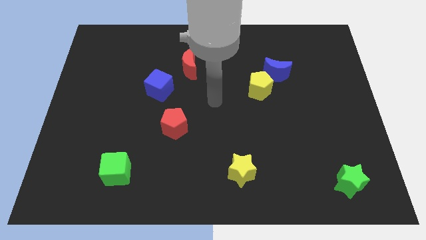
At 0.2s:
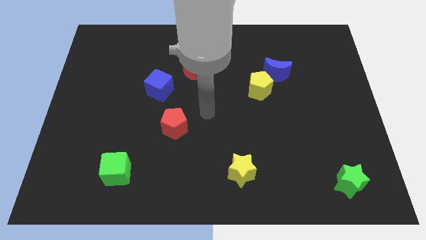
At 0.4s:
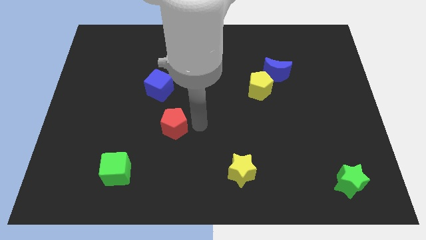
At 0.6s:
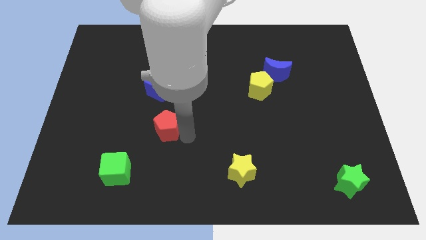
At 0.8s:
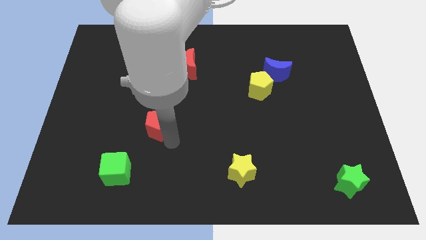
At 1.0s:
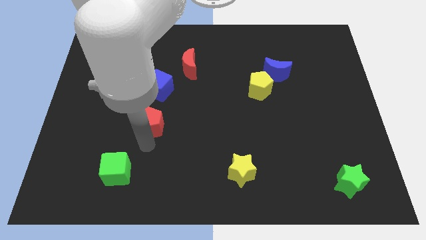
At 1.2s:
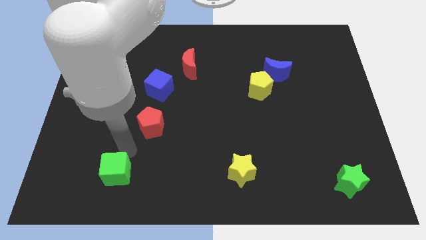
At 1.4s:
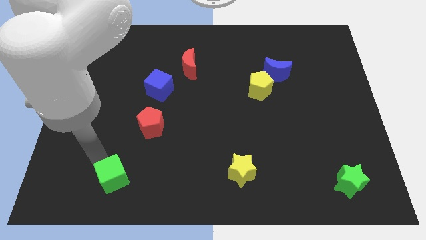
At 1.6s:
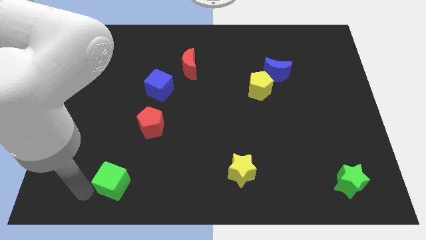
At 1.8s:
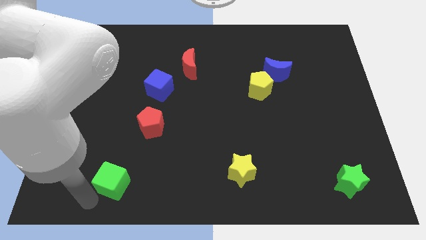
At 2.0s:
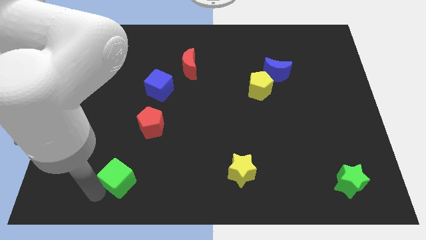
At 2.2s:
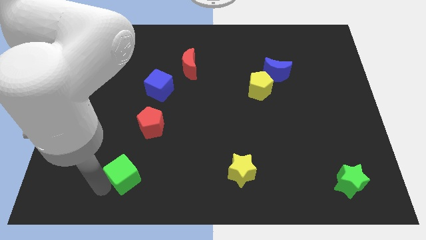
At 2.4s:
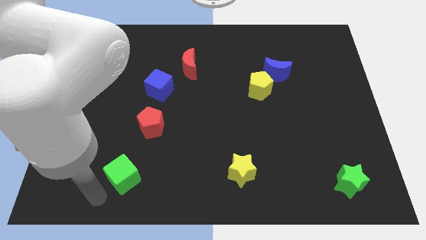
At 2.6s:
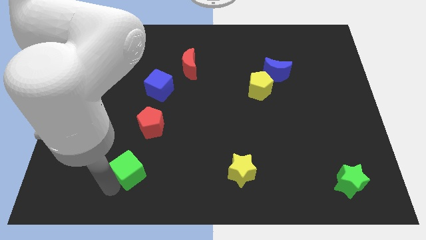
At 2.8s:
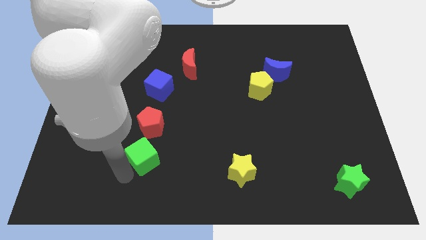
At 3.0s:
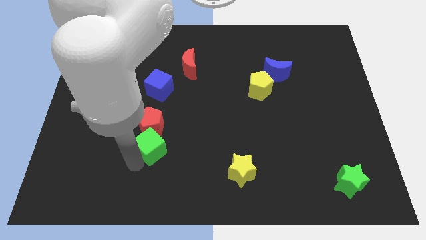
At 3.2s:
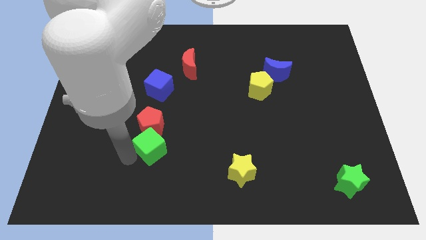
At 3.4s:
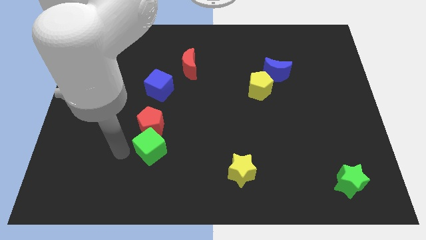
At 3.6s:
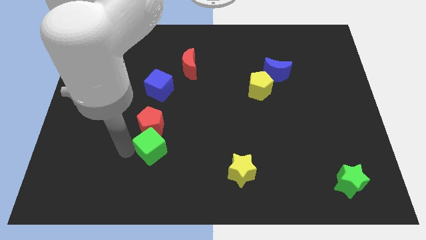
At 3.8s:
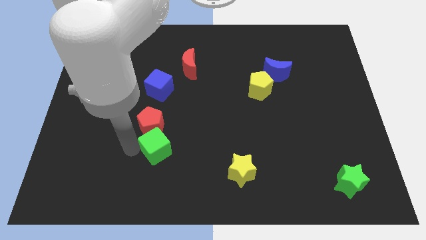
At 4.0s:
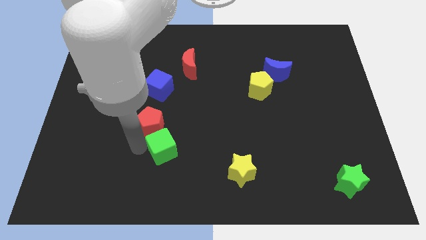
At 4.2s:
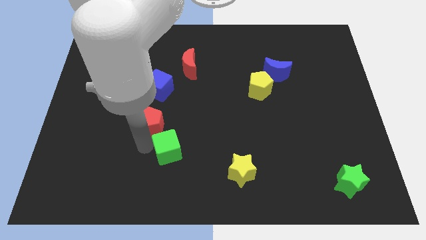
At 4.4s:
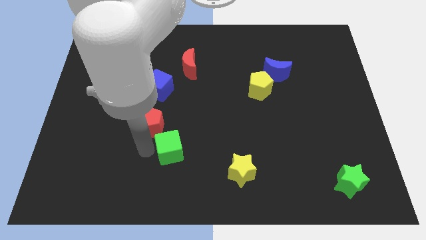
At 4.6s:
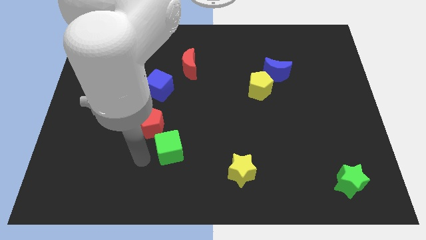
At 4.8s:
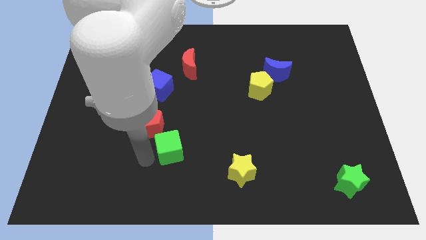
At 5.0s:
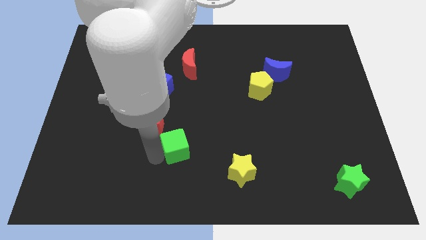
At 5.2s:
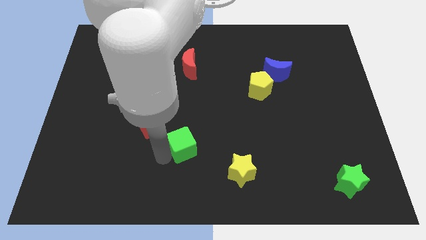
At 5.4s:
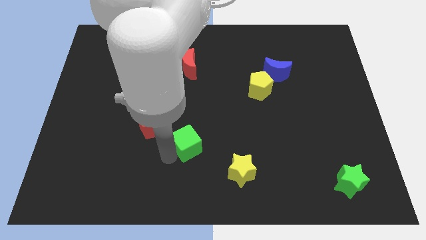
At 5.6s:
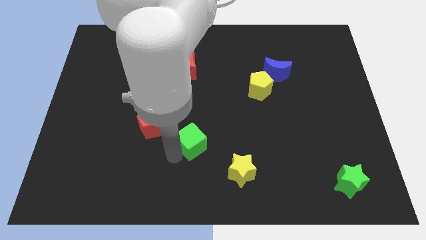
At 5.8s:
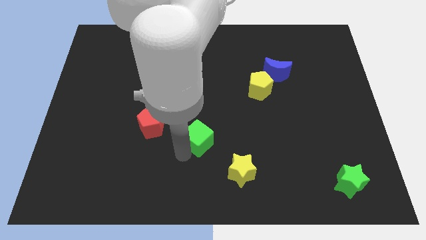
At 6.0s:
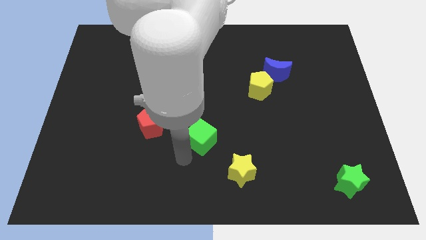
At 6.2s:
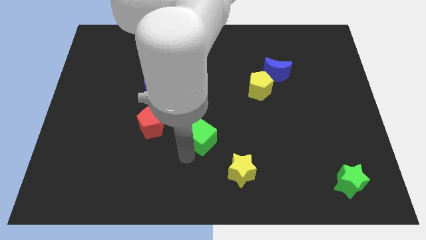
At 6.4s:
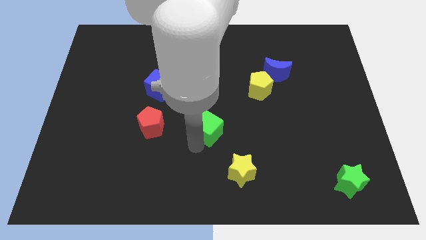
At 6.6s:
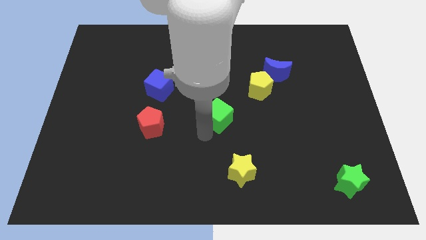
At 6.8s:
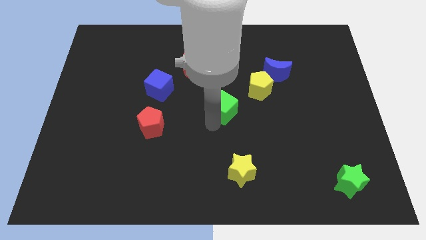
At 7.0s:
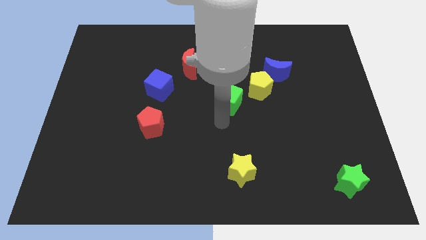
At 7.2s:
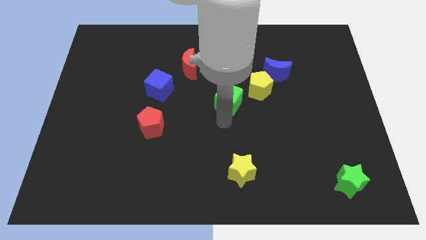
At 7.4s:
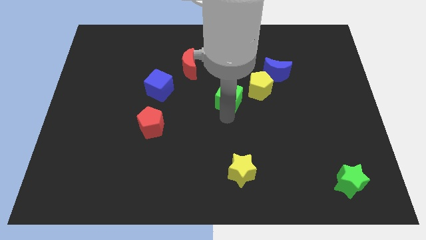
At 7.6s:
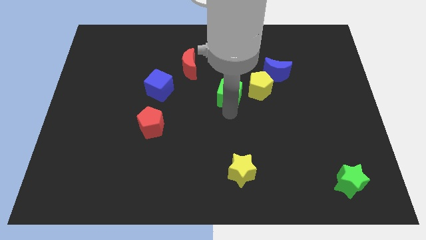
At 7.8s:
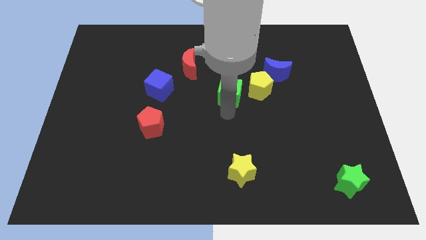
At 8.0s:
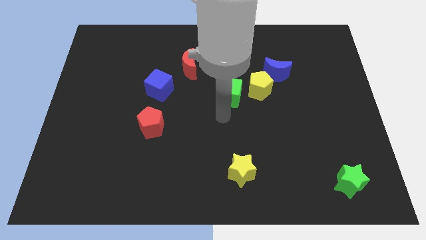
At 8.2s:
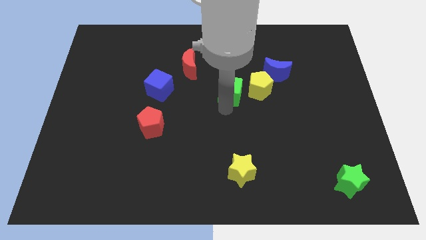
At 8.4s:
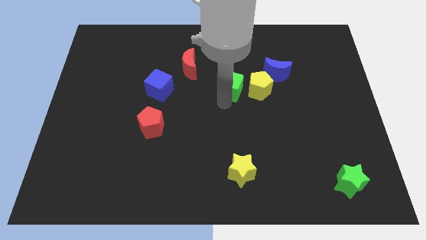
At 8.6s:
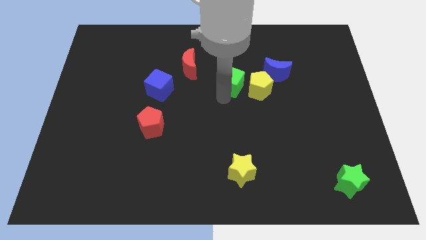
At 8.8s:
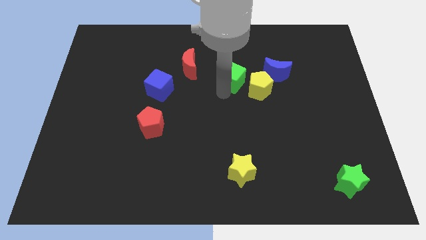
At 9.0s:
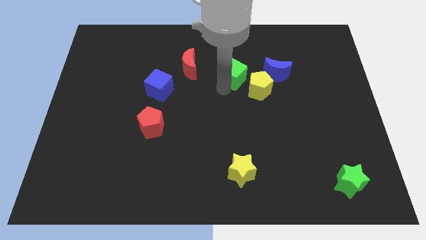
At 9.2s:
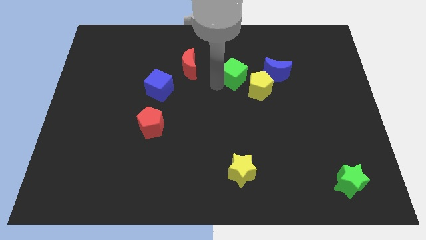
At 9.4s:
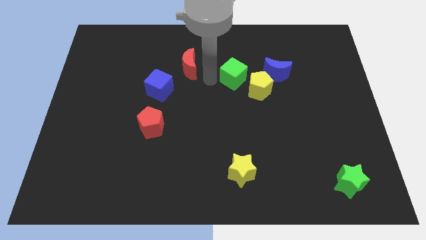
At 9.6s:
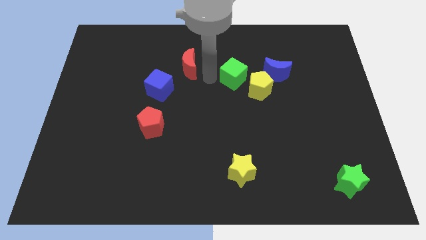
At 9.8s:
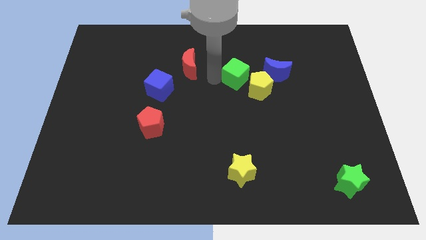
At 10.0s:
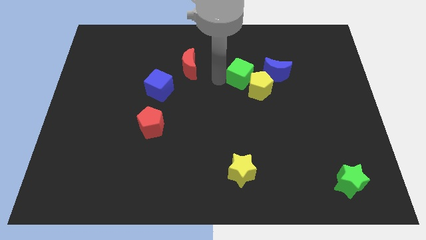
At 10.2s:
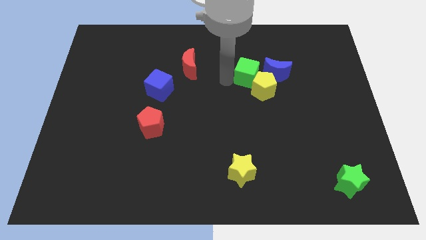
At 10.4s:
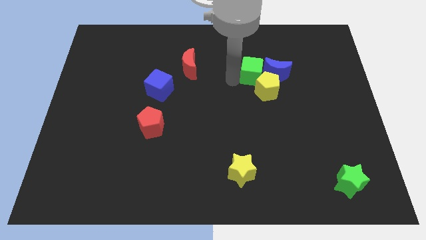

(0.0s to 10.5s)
put the green cube close to the blue moon

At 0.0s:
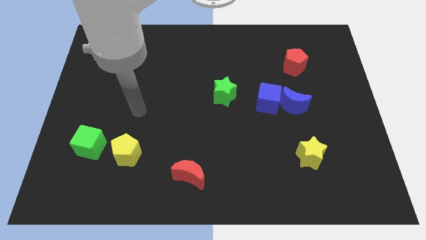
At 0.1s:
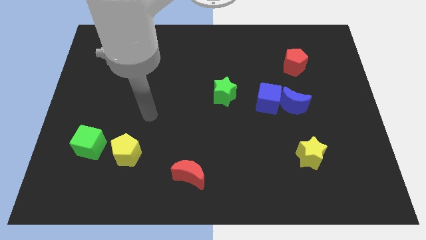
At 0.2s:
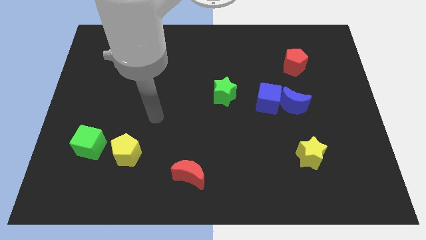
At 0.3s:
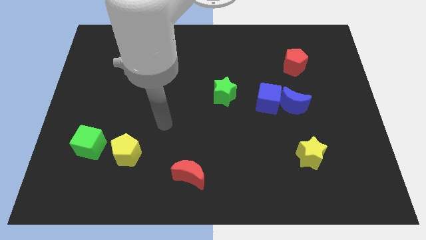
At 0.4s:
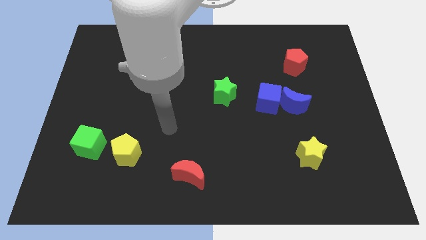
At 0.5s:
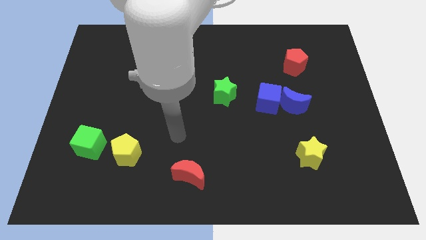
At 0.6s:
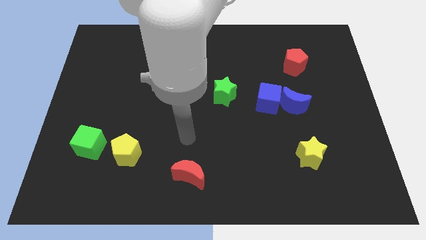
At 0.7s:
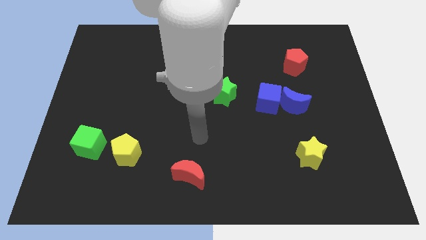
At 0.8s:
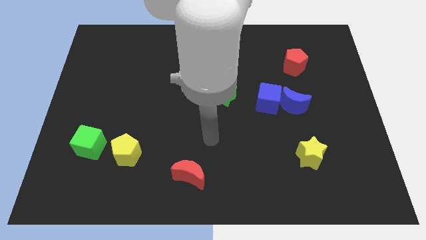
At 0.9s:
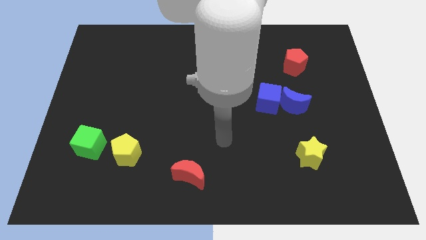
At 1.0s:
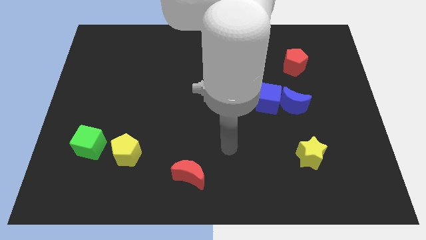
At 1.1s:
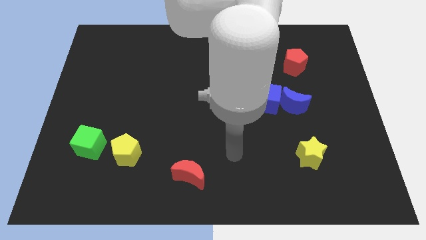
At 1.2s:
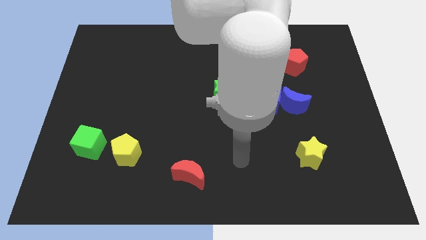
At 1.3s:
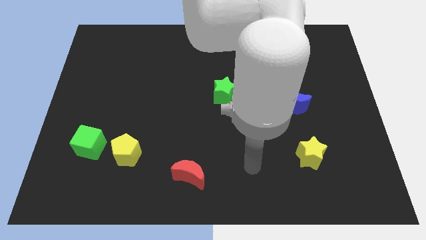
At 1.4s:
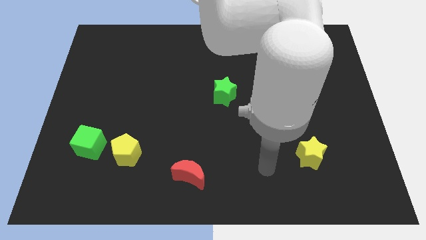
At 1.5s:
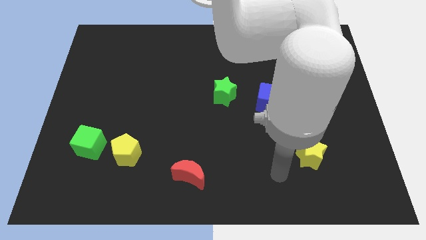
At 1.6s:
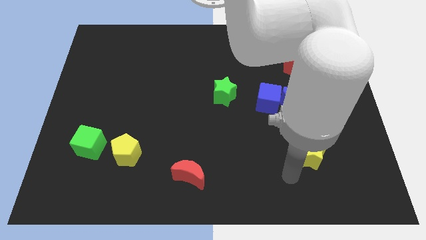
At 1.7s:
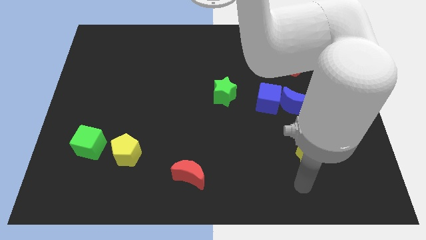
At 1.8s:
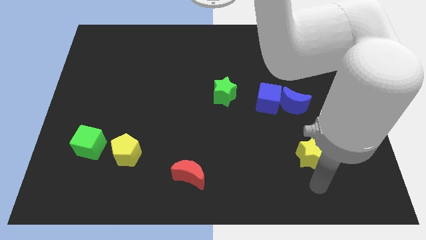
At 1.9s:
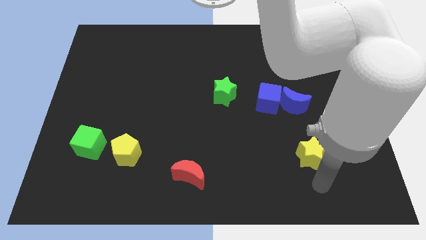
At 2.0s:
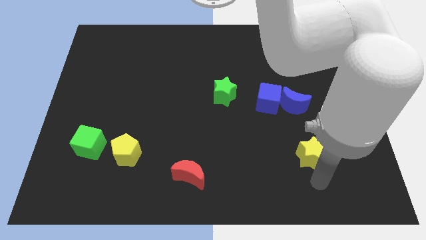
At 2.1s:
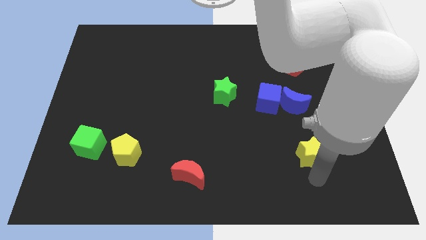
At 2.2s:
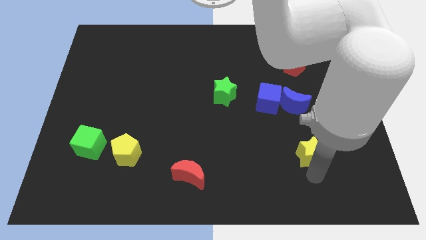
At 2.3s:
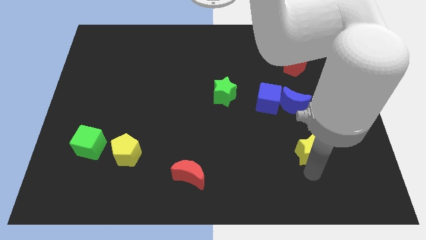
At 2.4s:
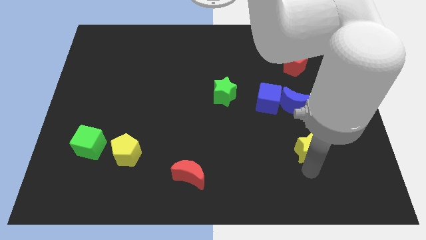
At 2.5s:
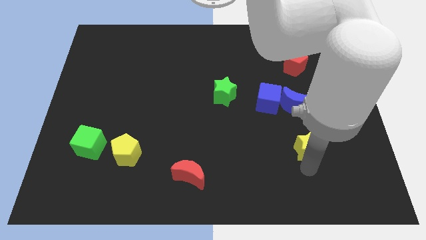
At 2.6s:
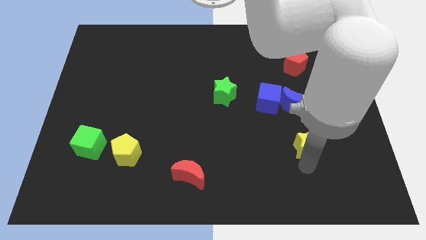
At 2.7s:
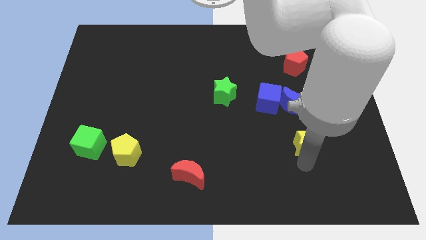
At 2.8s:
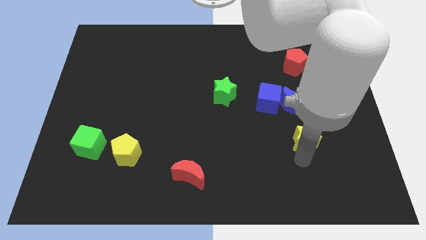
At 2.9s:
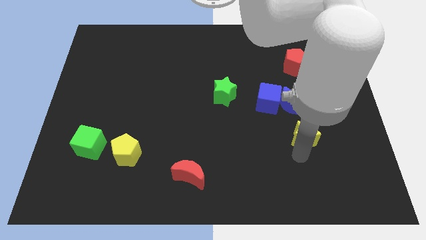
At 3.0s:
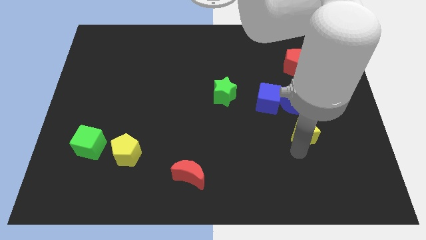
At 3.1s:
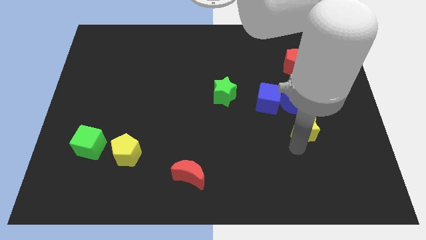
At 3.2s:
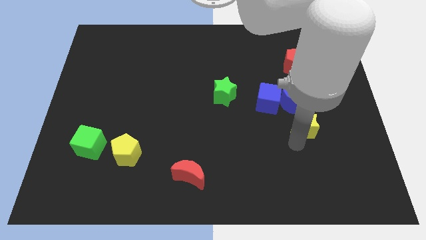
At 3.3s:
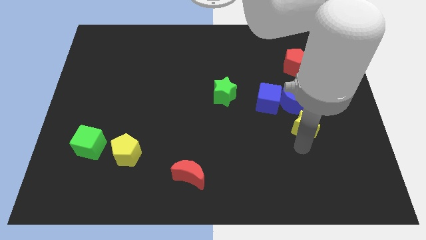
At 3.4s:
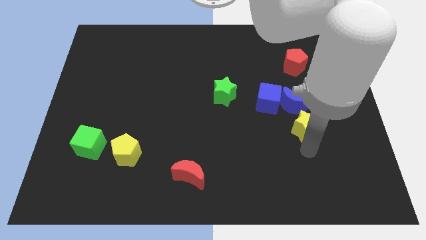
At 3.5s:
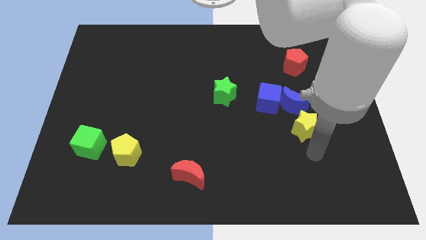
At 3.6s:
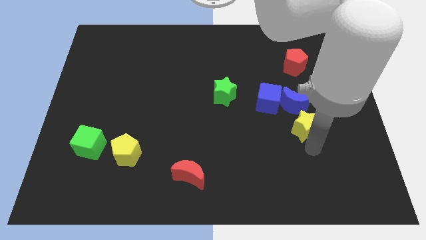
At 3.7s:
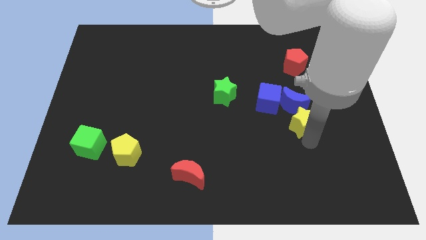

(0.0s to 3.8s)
put the yellow star towards the blue moon
